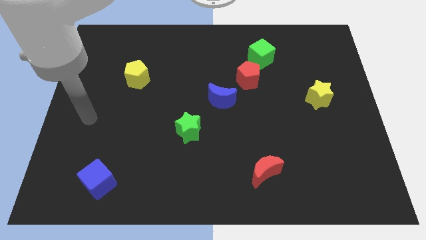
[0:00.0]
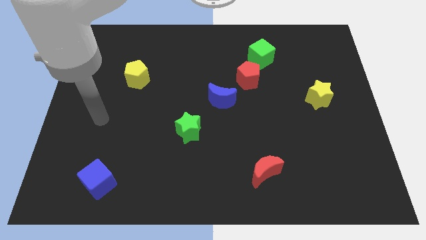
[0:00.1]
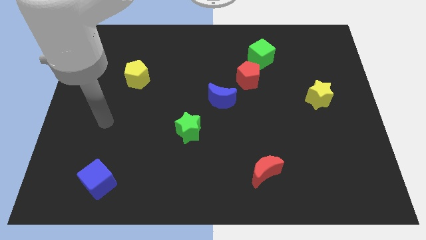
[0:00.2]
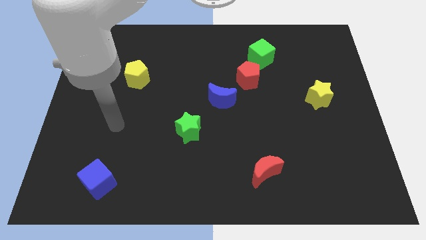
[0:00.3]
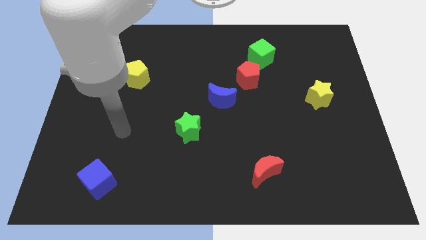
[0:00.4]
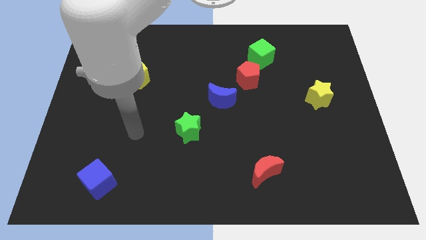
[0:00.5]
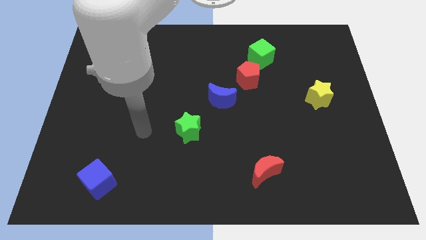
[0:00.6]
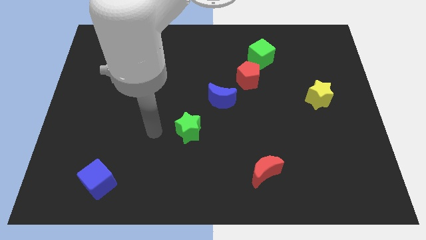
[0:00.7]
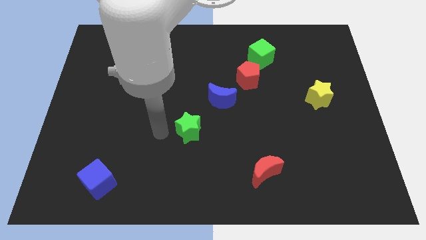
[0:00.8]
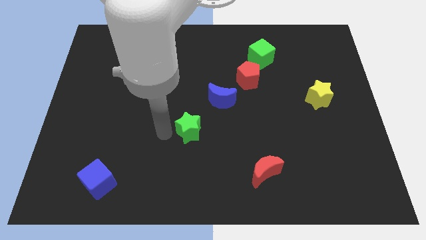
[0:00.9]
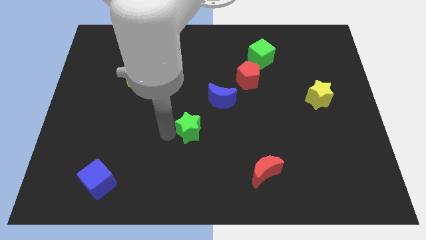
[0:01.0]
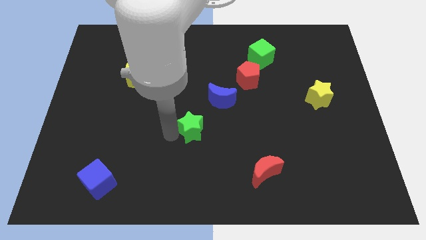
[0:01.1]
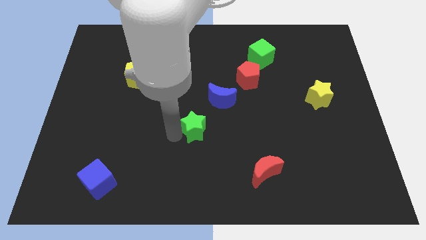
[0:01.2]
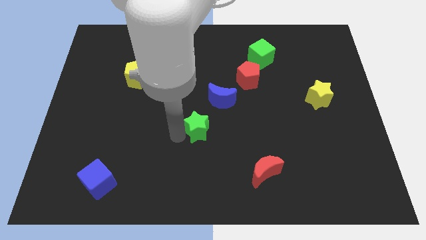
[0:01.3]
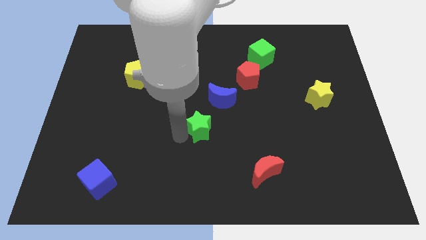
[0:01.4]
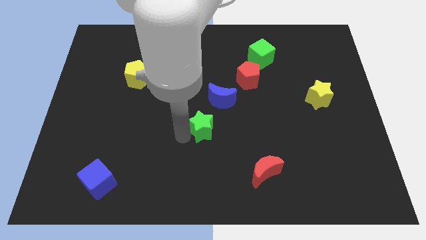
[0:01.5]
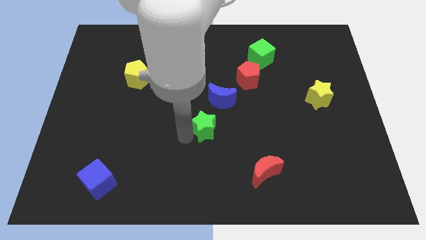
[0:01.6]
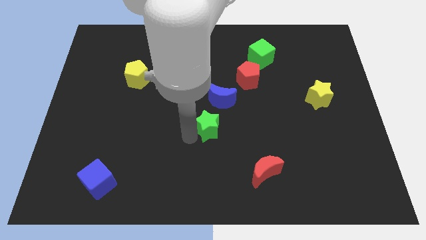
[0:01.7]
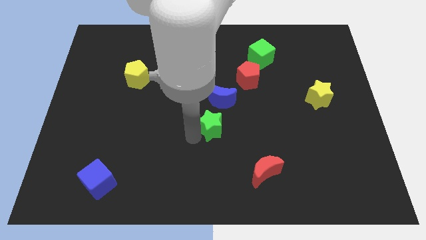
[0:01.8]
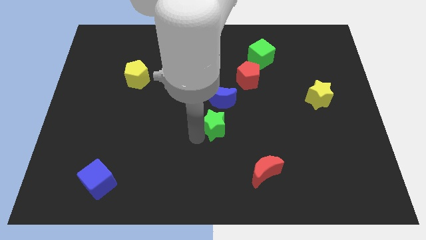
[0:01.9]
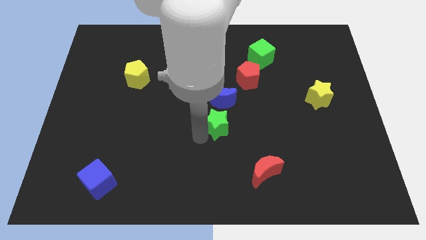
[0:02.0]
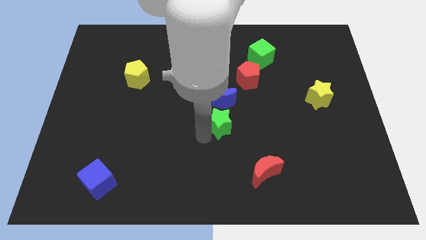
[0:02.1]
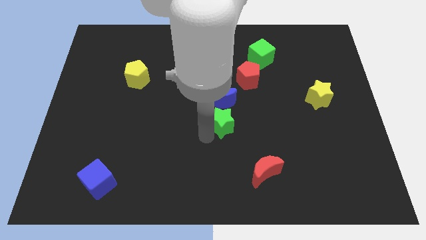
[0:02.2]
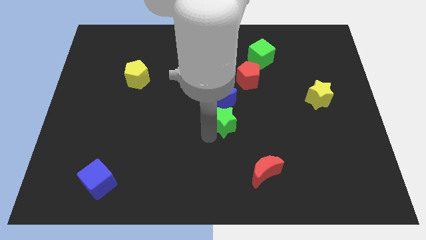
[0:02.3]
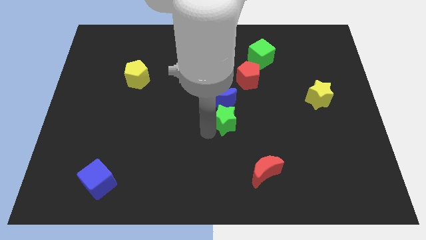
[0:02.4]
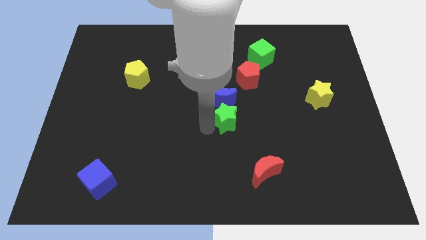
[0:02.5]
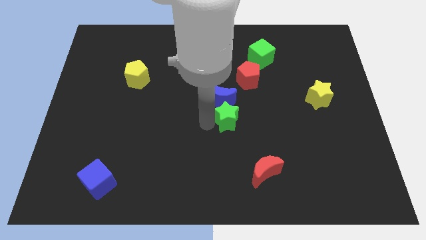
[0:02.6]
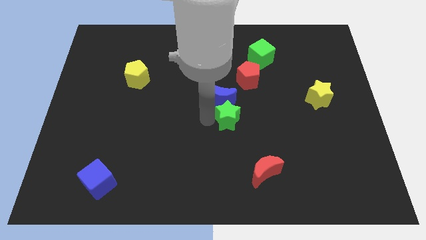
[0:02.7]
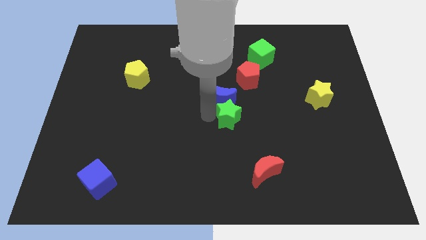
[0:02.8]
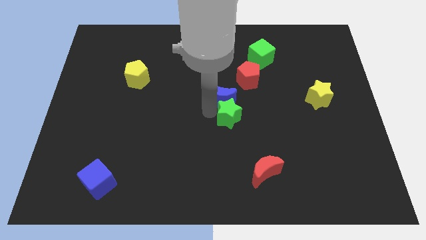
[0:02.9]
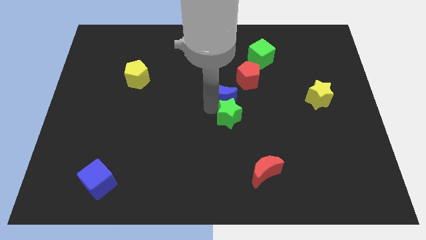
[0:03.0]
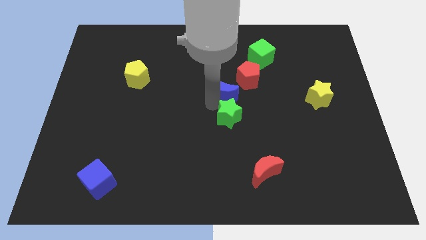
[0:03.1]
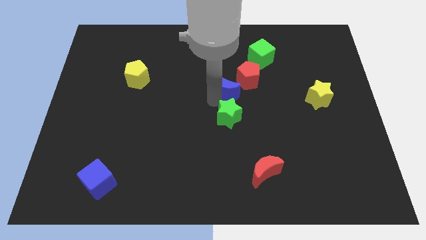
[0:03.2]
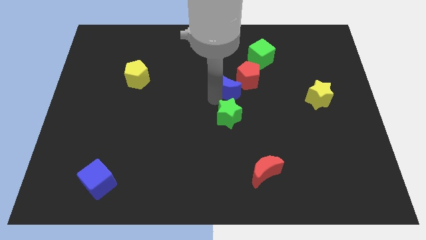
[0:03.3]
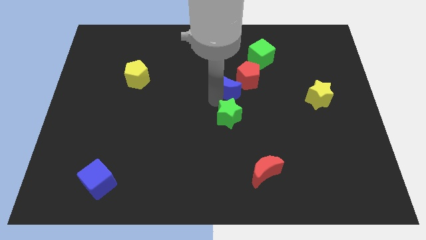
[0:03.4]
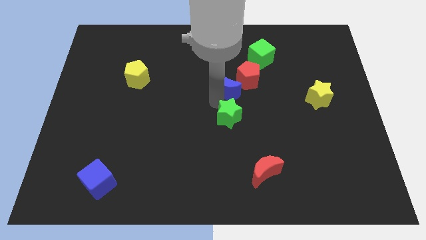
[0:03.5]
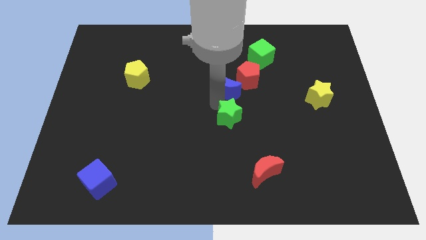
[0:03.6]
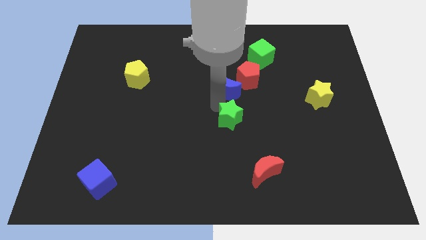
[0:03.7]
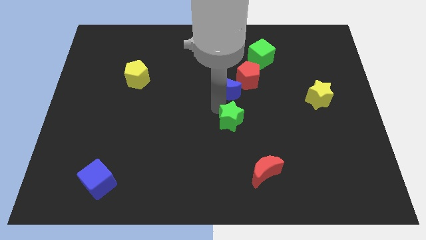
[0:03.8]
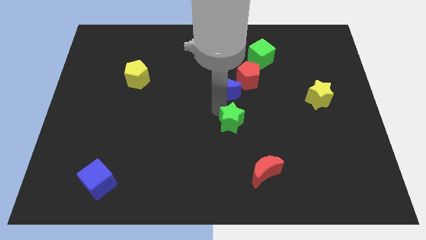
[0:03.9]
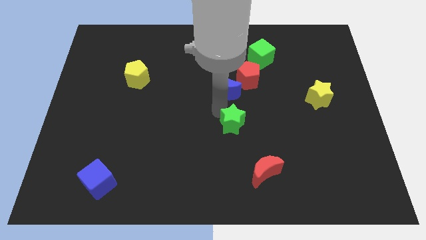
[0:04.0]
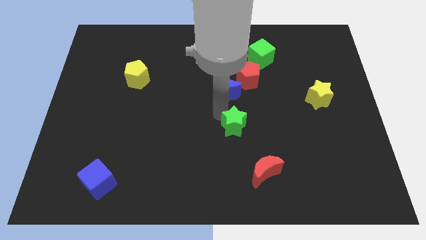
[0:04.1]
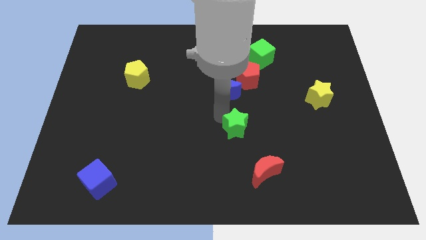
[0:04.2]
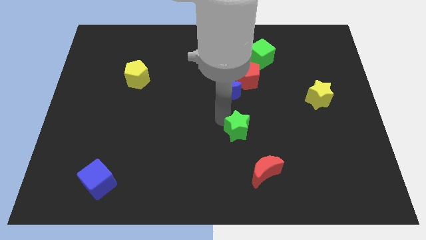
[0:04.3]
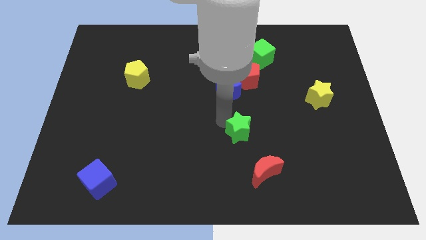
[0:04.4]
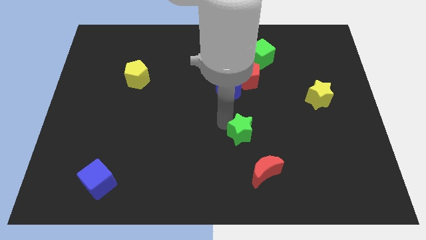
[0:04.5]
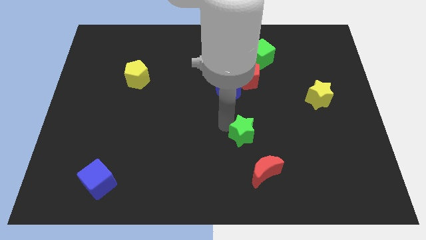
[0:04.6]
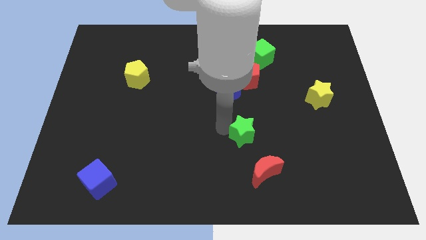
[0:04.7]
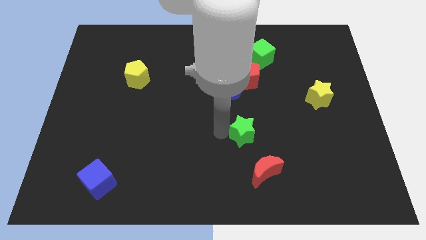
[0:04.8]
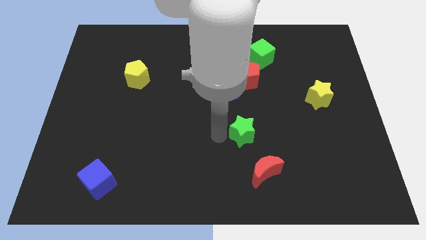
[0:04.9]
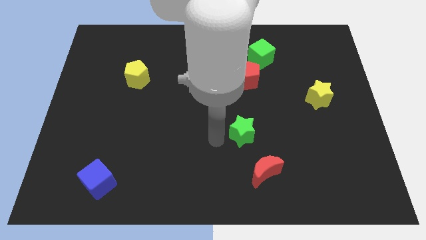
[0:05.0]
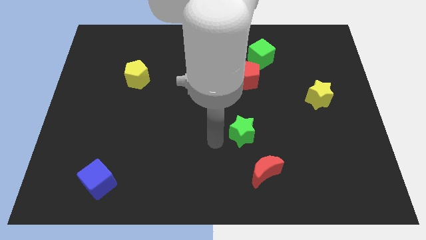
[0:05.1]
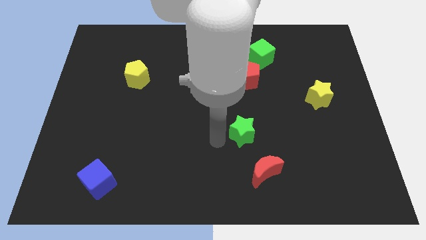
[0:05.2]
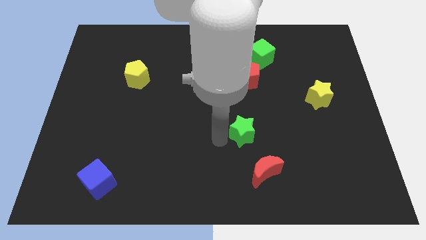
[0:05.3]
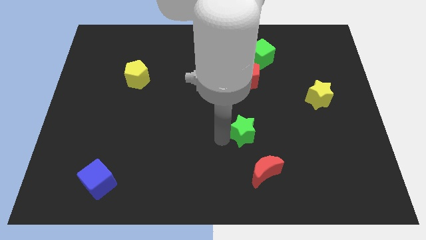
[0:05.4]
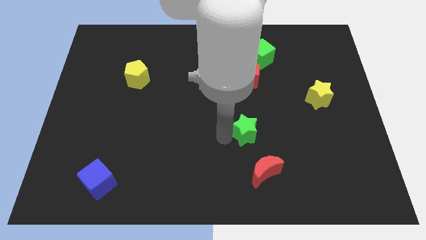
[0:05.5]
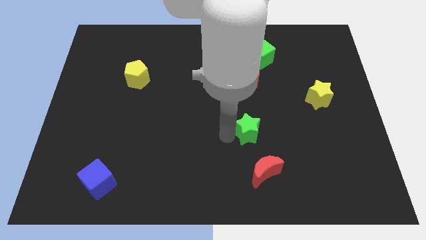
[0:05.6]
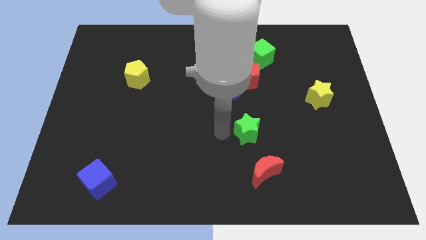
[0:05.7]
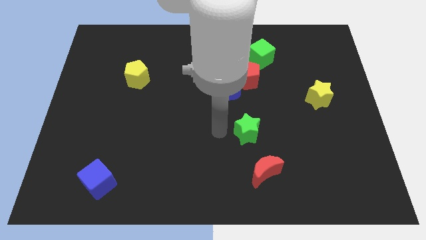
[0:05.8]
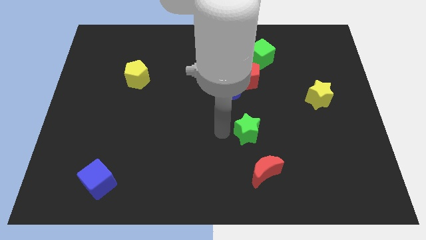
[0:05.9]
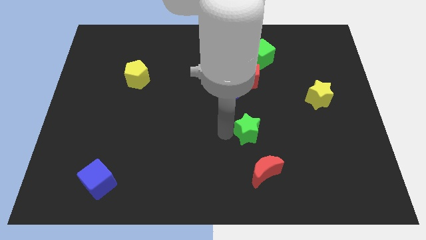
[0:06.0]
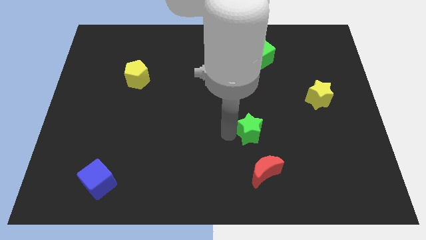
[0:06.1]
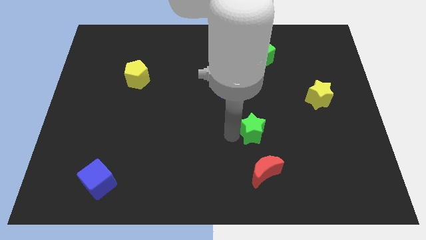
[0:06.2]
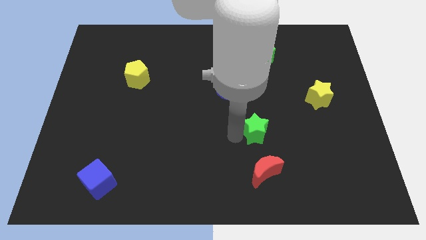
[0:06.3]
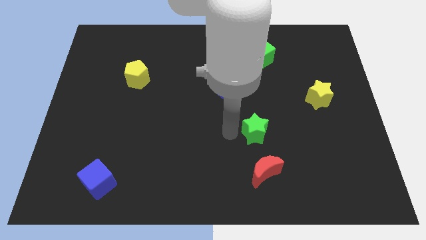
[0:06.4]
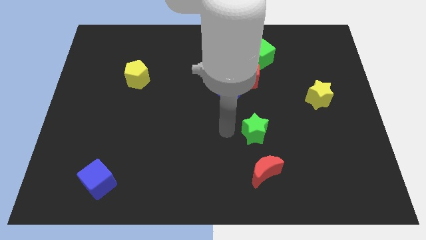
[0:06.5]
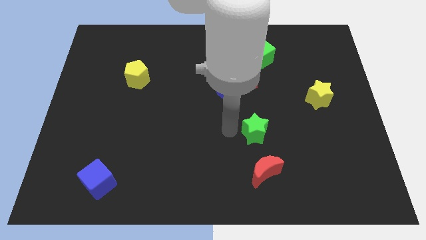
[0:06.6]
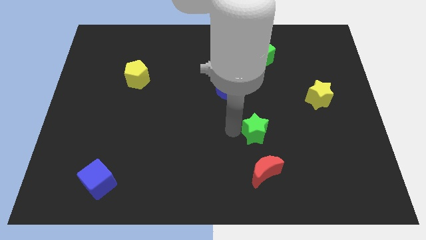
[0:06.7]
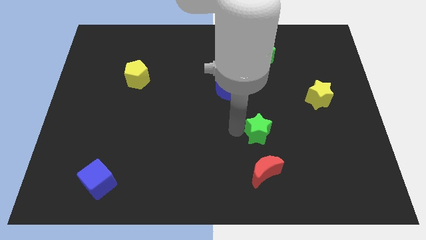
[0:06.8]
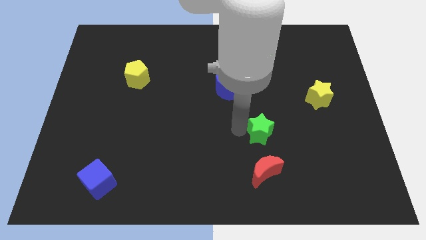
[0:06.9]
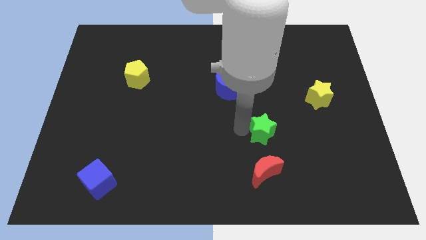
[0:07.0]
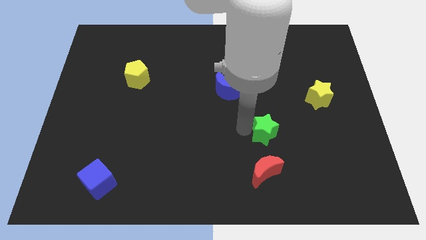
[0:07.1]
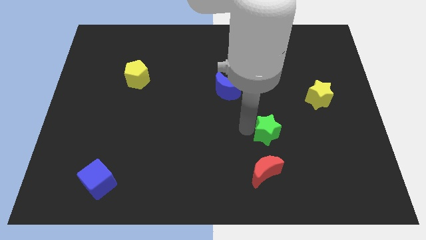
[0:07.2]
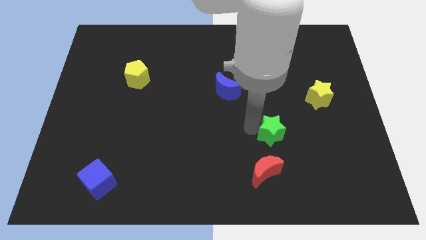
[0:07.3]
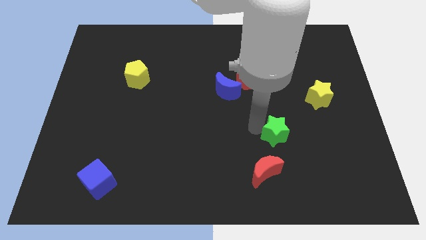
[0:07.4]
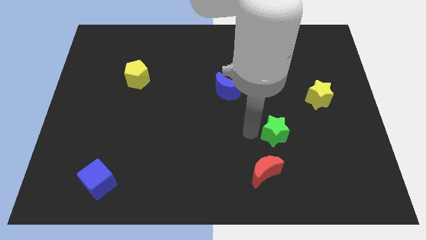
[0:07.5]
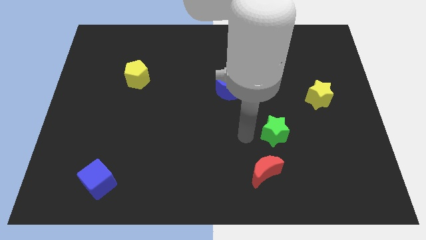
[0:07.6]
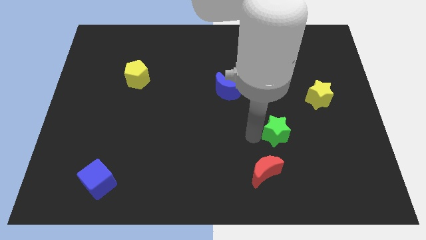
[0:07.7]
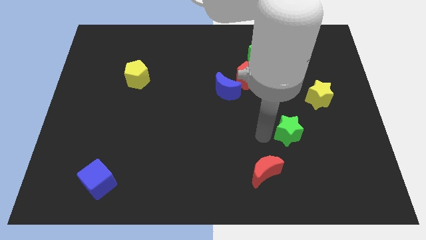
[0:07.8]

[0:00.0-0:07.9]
slide the green star right

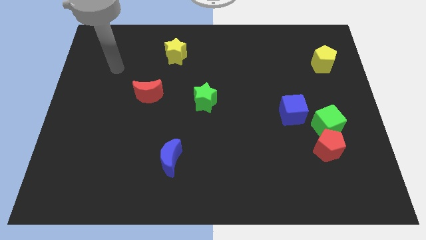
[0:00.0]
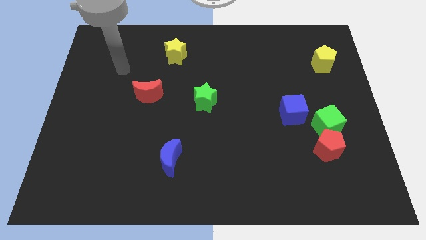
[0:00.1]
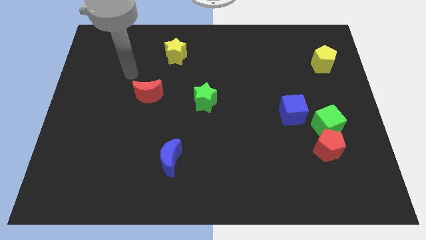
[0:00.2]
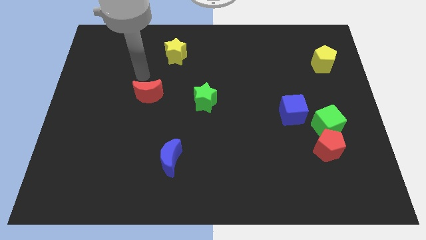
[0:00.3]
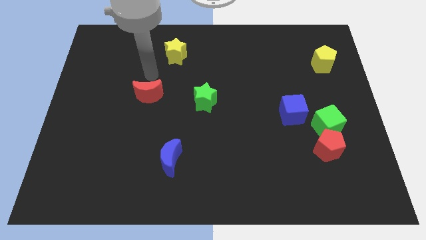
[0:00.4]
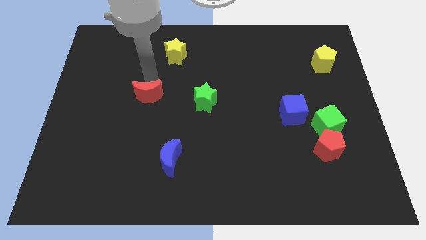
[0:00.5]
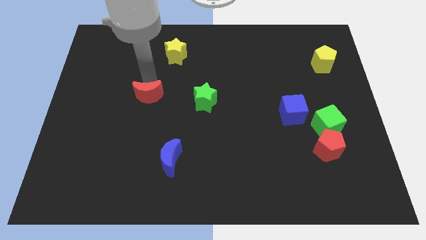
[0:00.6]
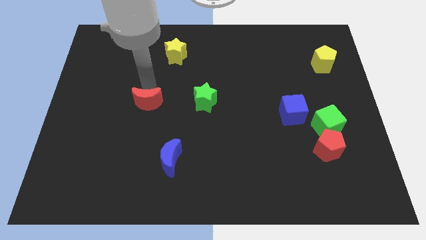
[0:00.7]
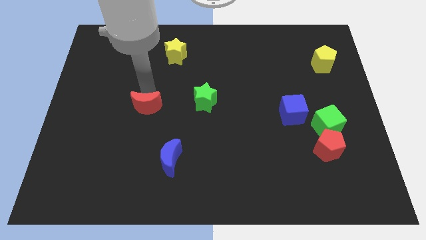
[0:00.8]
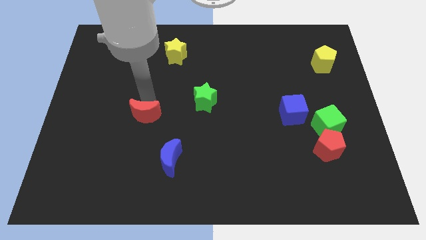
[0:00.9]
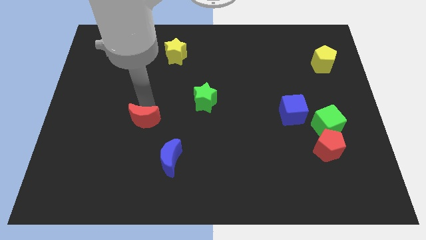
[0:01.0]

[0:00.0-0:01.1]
slightly push the red moon downwards
